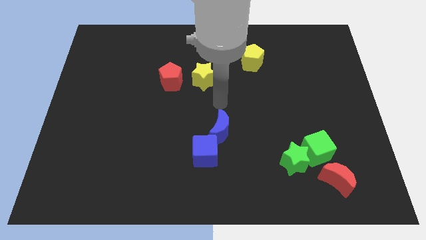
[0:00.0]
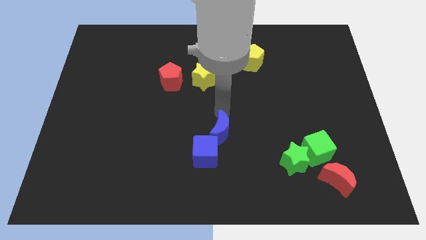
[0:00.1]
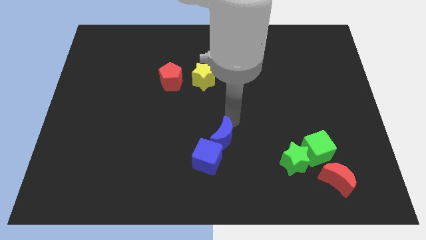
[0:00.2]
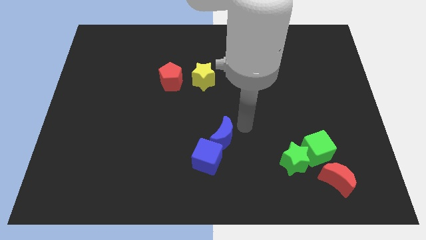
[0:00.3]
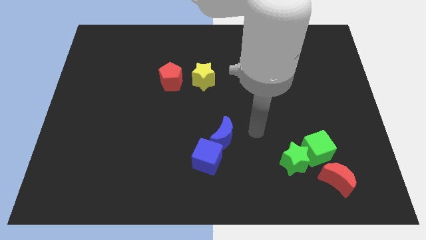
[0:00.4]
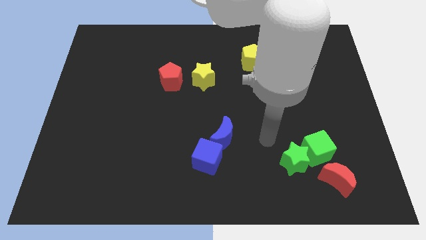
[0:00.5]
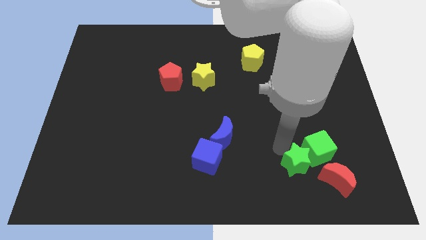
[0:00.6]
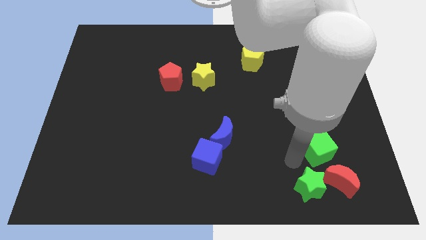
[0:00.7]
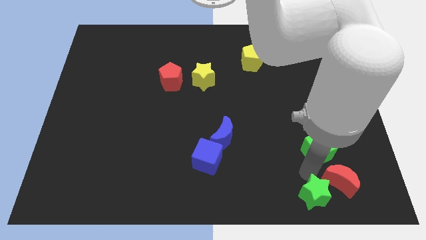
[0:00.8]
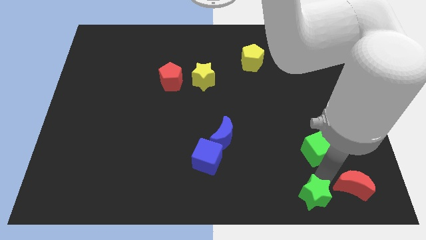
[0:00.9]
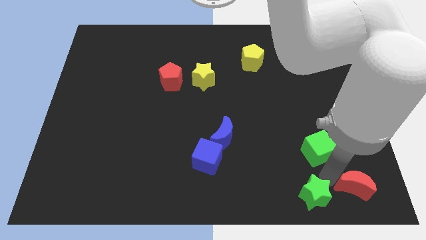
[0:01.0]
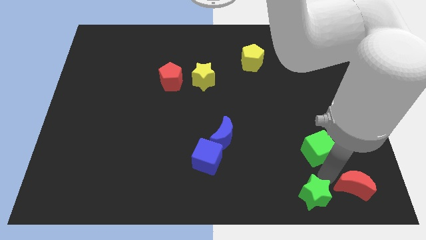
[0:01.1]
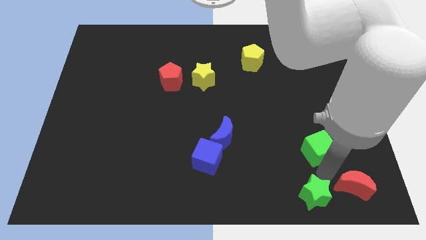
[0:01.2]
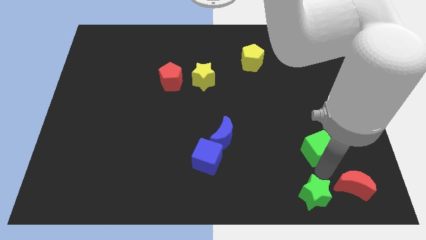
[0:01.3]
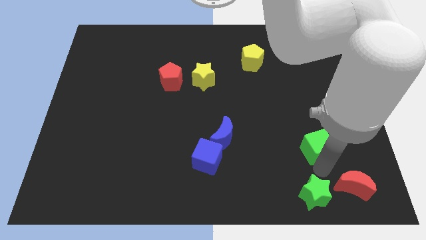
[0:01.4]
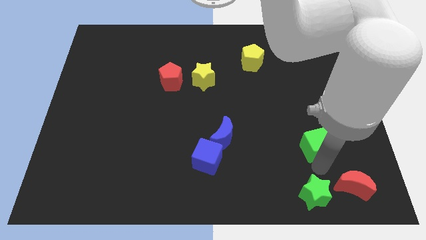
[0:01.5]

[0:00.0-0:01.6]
pull the green cube apart from the green star and red moon

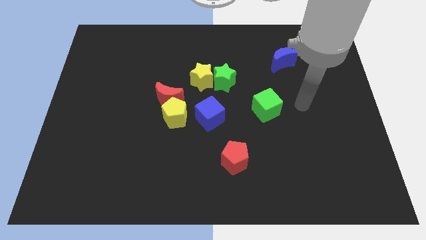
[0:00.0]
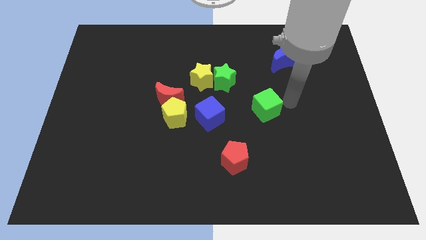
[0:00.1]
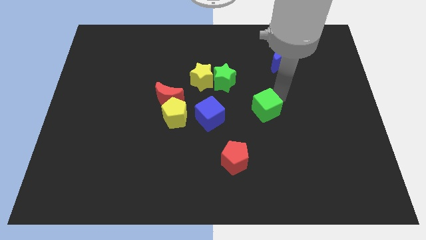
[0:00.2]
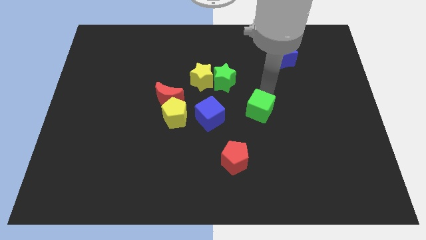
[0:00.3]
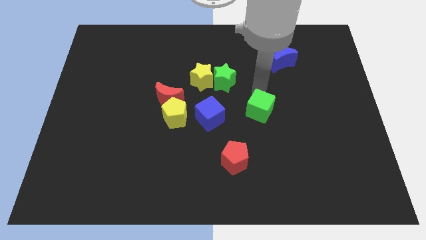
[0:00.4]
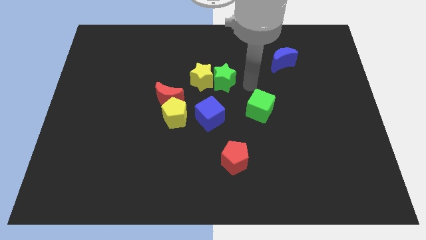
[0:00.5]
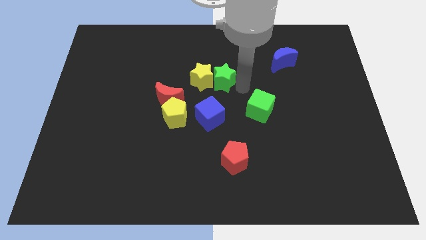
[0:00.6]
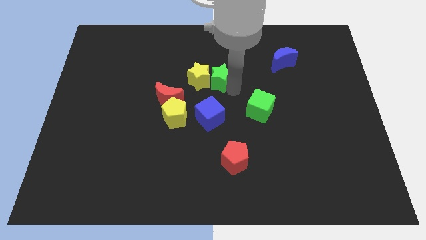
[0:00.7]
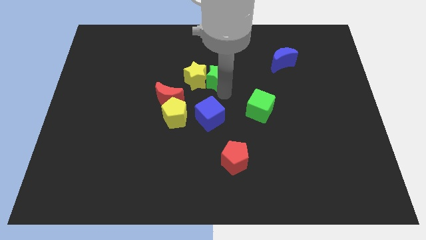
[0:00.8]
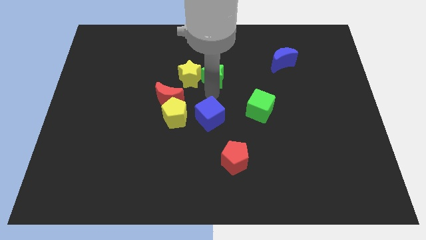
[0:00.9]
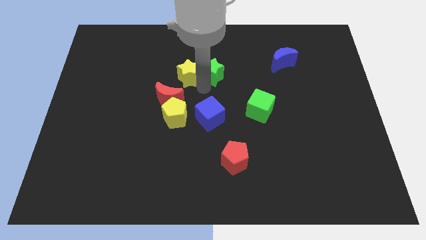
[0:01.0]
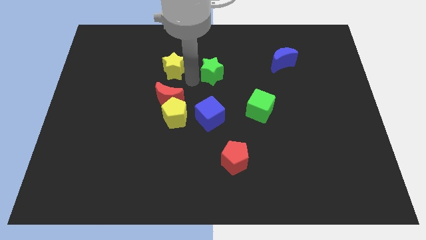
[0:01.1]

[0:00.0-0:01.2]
pull the green star apart from the yellow star

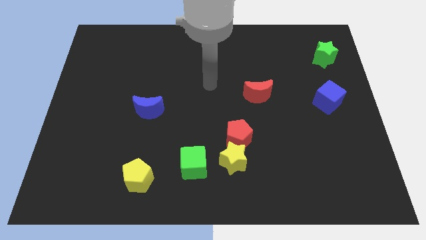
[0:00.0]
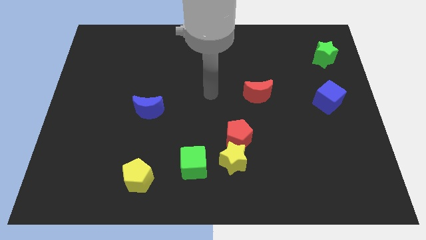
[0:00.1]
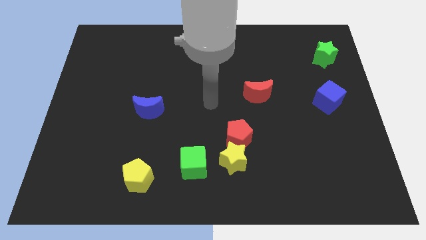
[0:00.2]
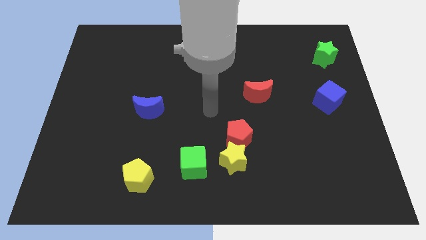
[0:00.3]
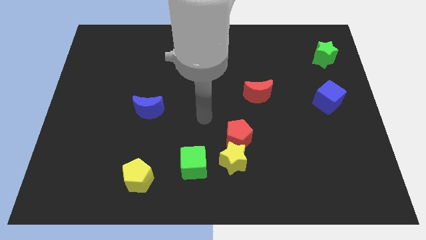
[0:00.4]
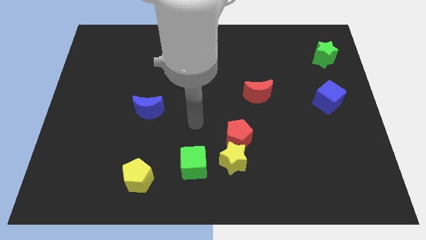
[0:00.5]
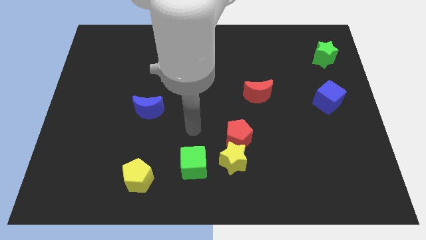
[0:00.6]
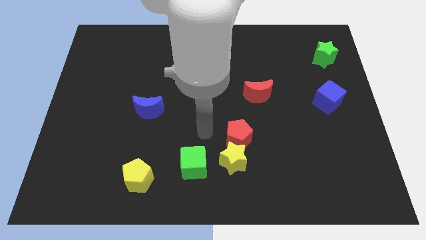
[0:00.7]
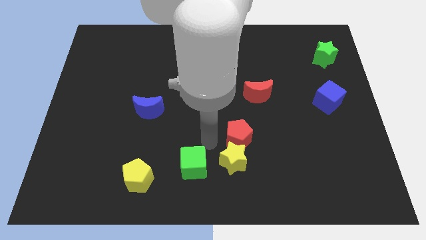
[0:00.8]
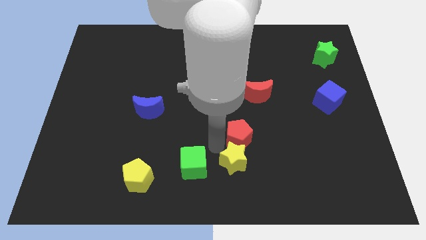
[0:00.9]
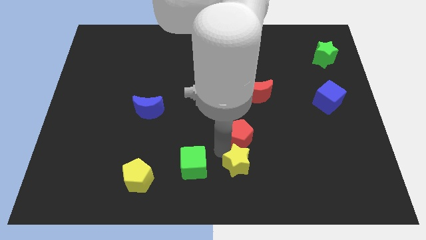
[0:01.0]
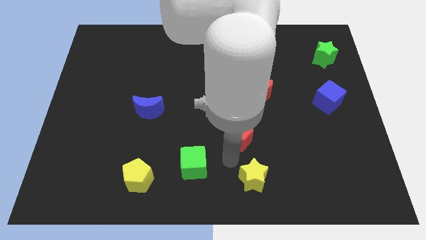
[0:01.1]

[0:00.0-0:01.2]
separate the red pentagon from the yellow star

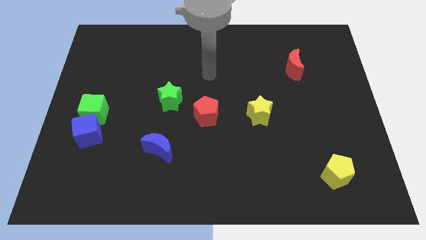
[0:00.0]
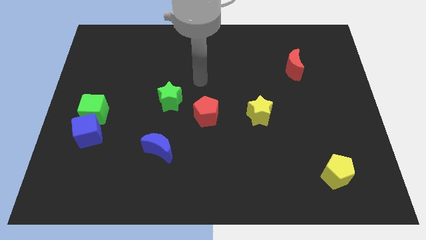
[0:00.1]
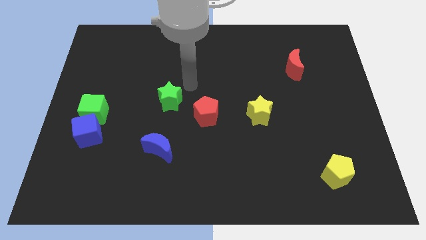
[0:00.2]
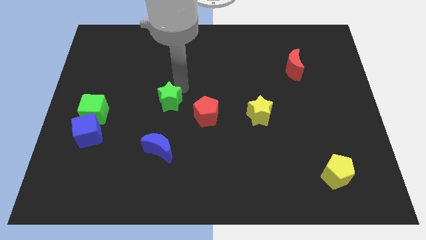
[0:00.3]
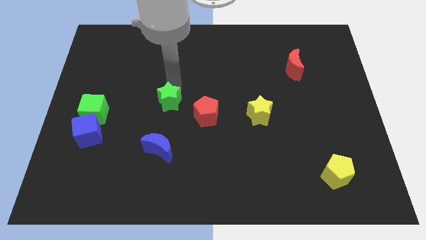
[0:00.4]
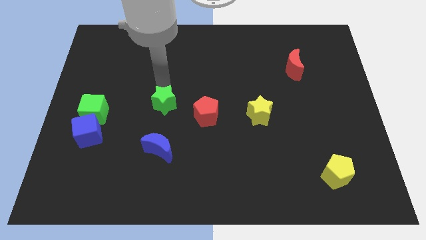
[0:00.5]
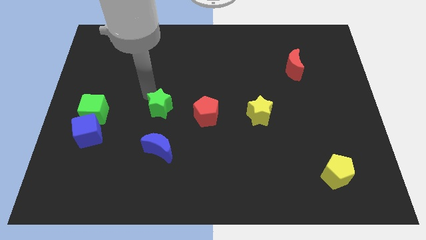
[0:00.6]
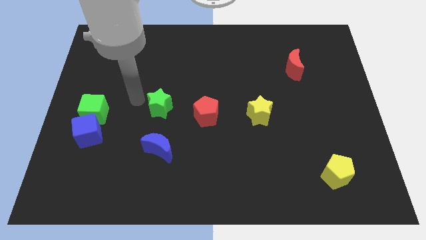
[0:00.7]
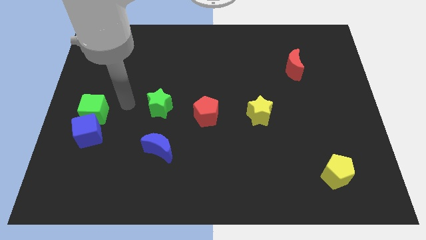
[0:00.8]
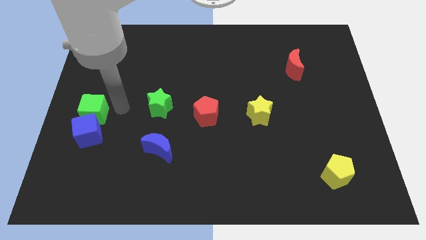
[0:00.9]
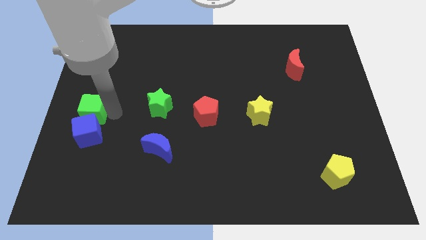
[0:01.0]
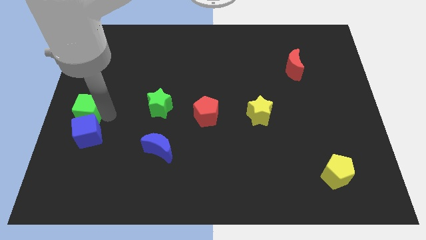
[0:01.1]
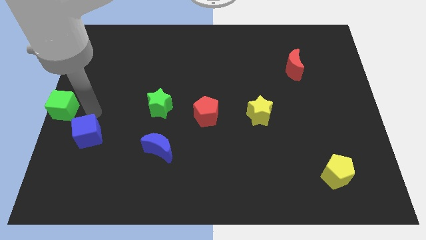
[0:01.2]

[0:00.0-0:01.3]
separate the blue cube from the green cube

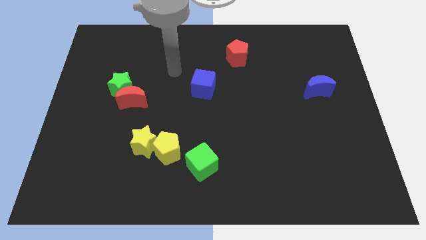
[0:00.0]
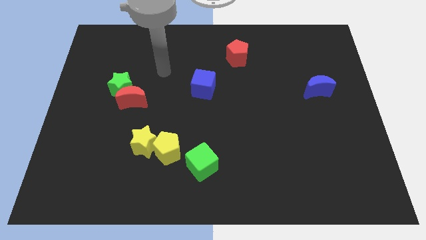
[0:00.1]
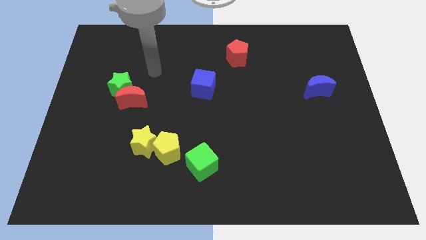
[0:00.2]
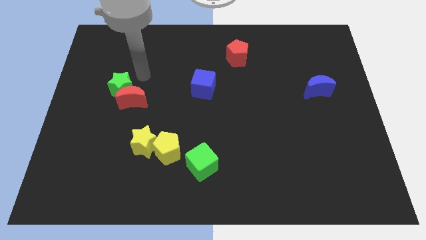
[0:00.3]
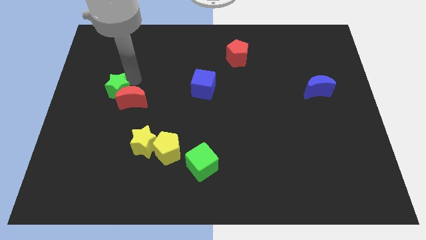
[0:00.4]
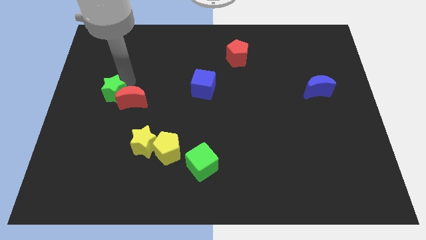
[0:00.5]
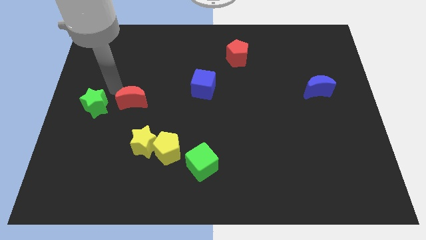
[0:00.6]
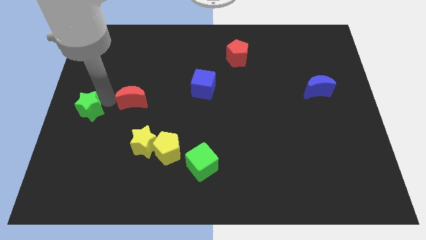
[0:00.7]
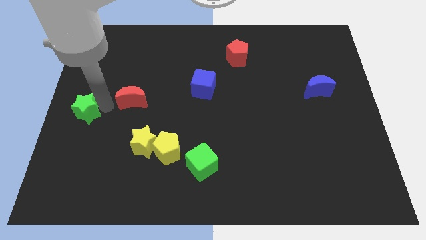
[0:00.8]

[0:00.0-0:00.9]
move the red moon away from the green star

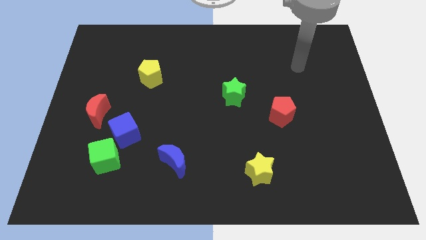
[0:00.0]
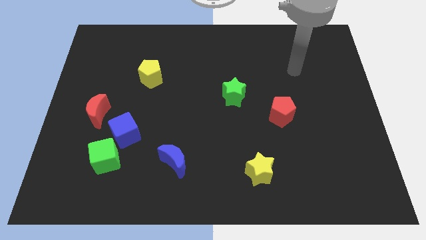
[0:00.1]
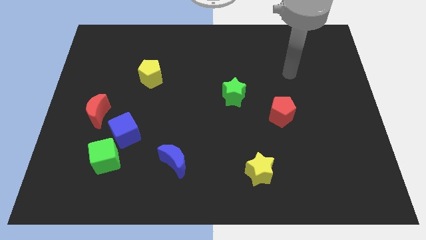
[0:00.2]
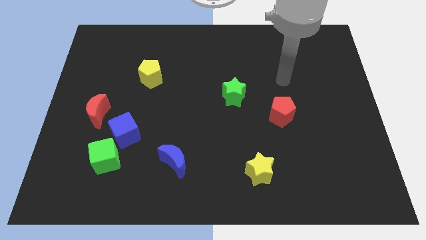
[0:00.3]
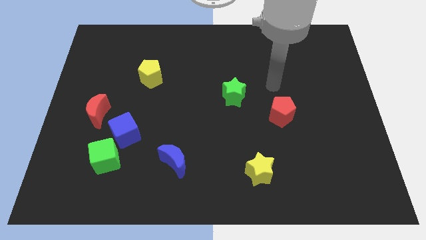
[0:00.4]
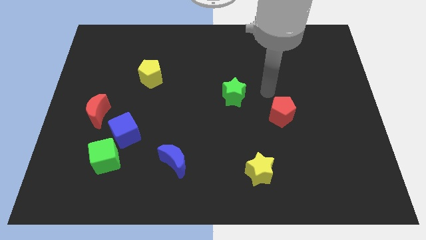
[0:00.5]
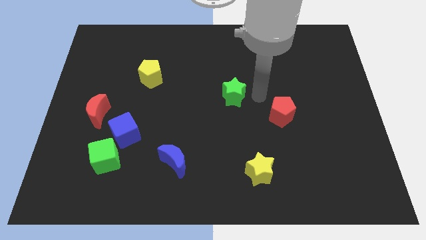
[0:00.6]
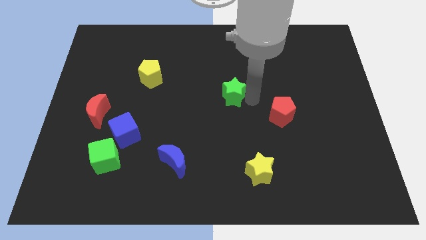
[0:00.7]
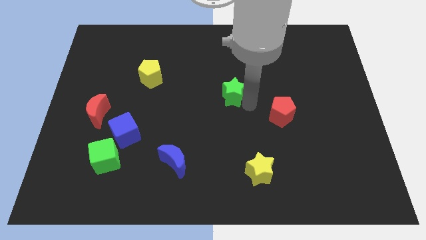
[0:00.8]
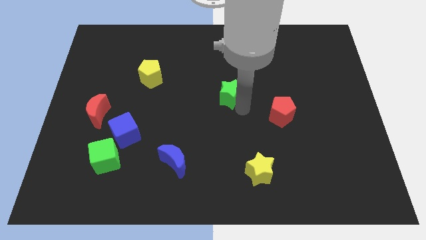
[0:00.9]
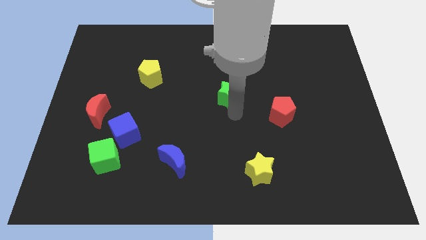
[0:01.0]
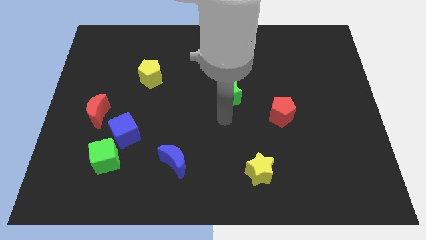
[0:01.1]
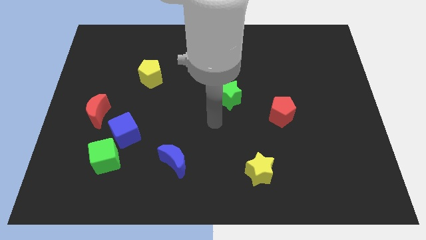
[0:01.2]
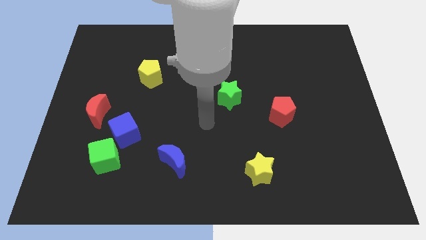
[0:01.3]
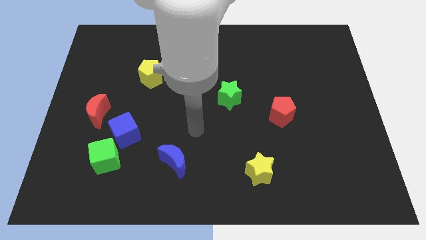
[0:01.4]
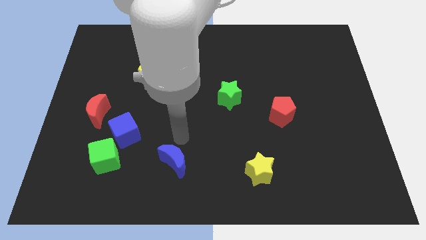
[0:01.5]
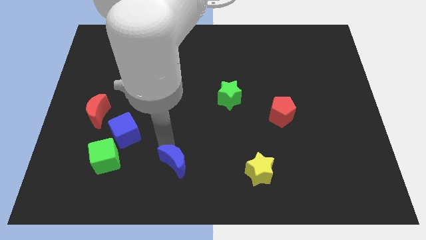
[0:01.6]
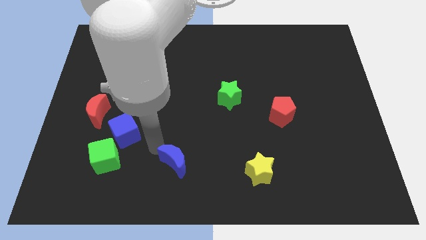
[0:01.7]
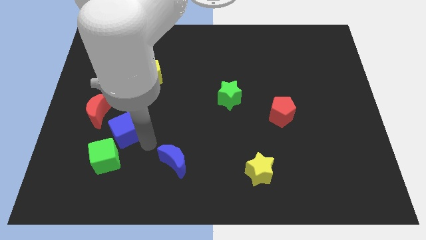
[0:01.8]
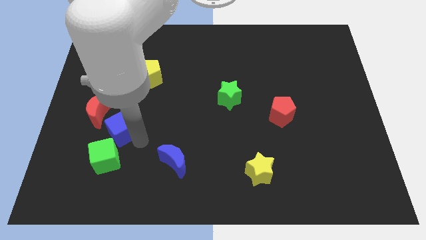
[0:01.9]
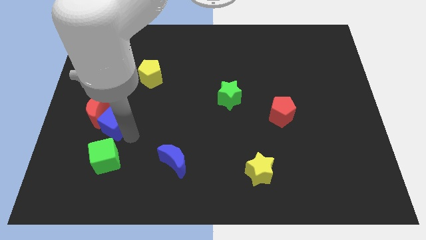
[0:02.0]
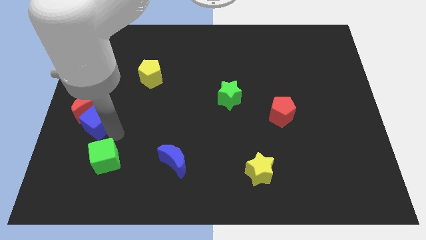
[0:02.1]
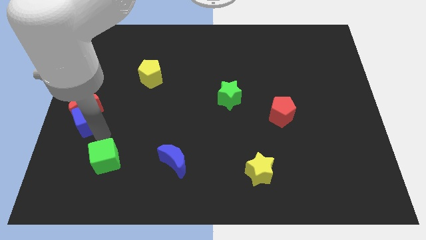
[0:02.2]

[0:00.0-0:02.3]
move the green cube away from the blue cube

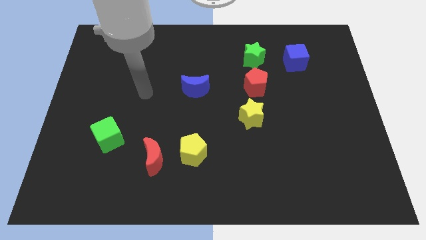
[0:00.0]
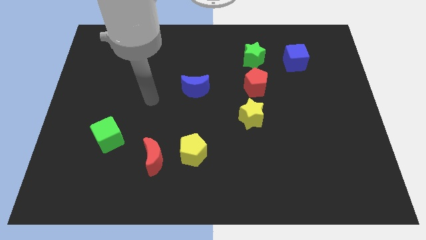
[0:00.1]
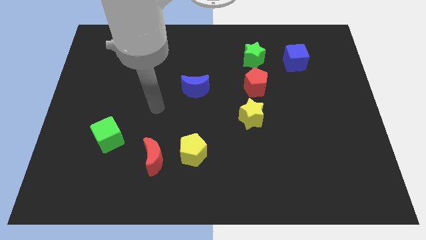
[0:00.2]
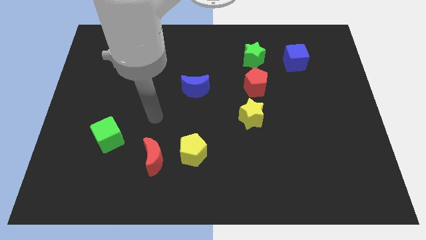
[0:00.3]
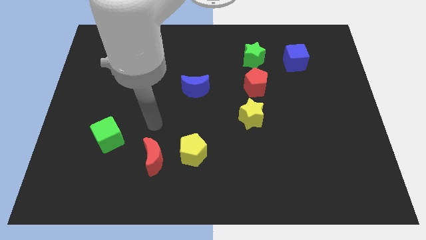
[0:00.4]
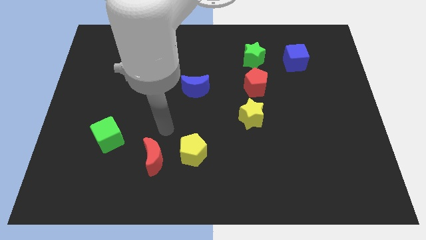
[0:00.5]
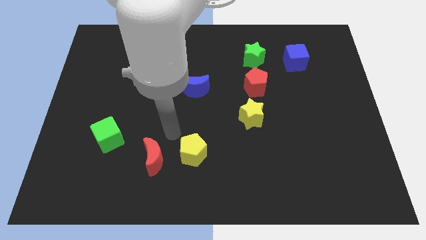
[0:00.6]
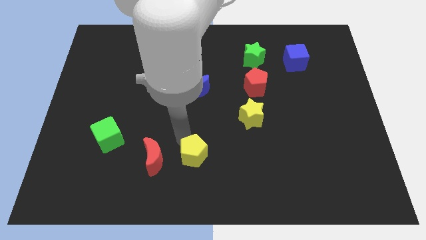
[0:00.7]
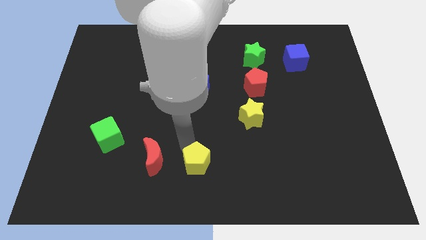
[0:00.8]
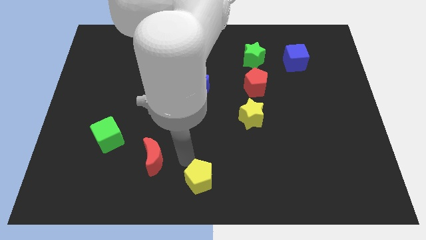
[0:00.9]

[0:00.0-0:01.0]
pull the red moon apart from the yellow pentagon
